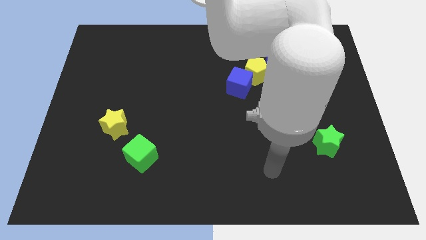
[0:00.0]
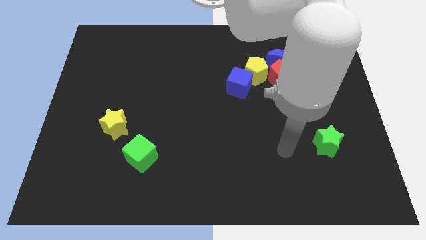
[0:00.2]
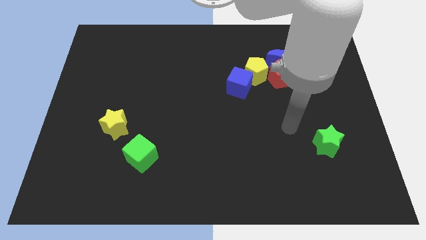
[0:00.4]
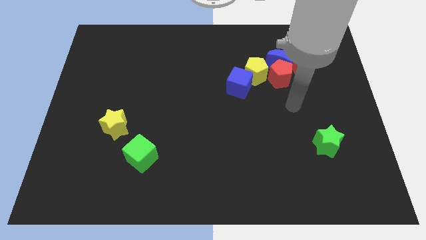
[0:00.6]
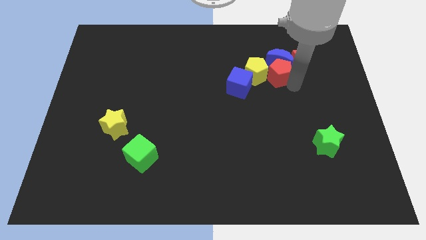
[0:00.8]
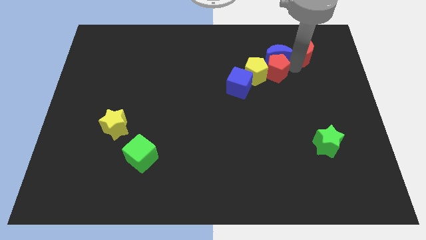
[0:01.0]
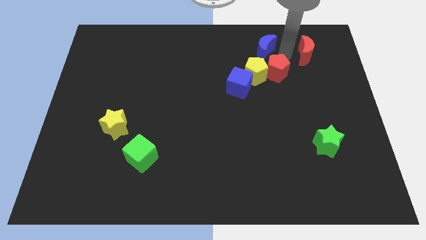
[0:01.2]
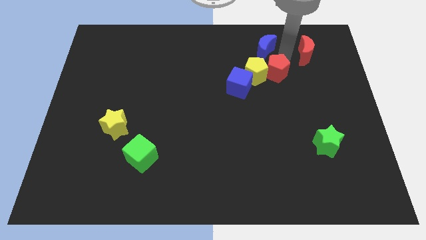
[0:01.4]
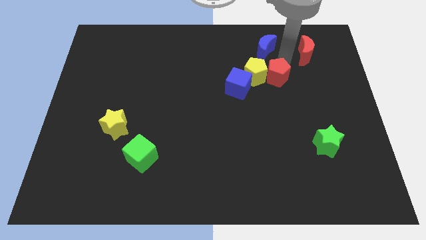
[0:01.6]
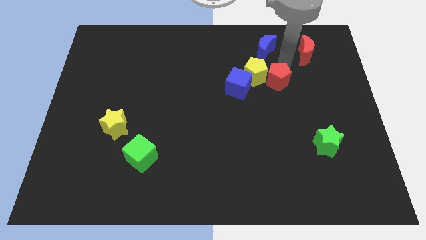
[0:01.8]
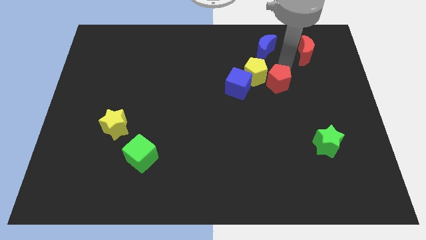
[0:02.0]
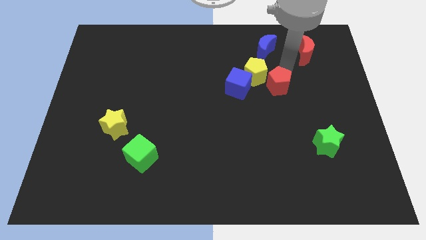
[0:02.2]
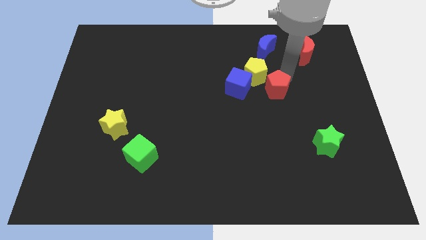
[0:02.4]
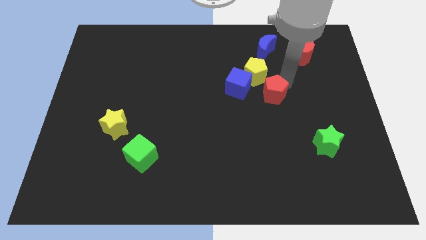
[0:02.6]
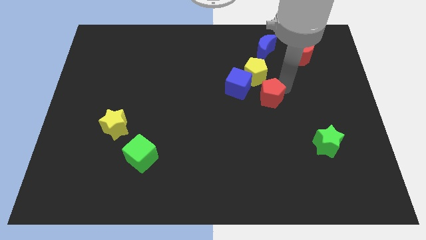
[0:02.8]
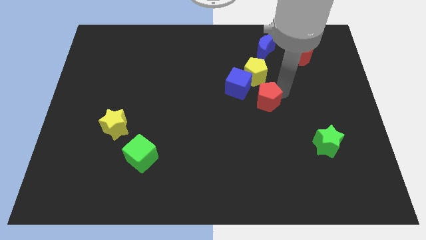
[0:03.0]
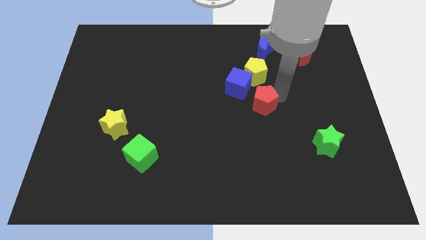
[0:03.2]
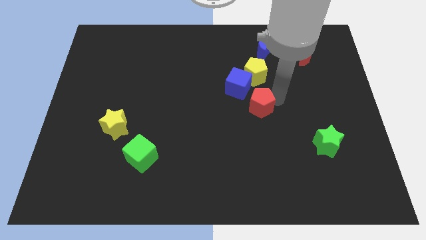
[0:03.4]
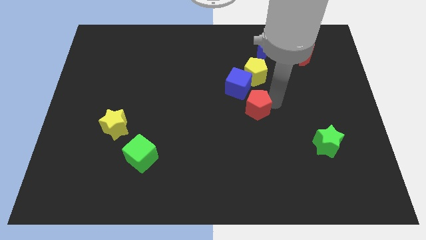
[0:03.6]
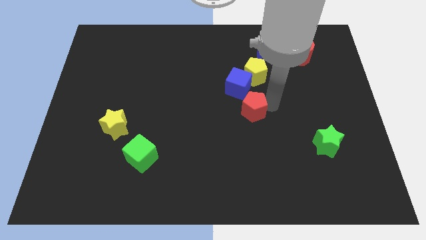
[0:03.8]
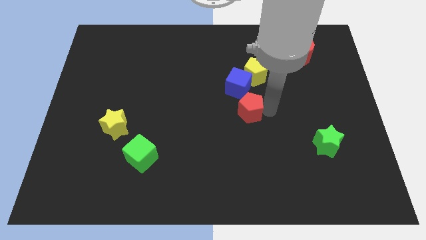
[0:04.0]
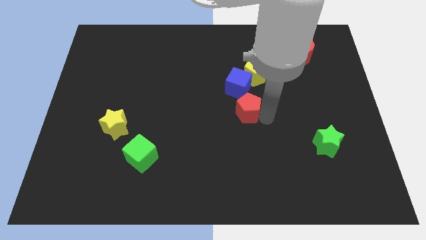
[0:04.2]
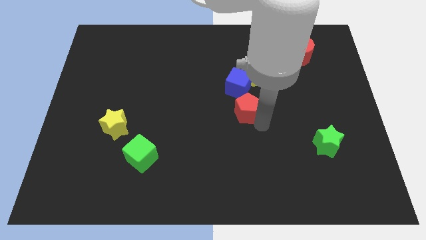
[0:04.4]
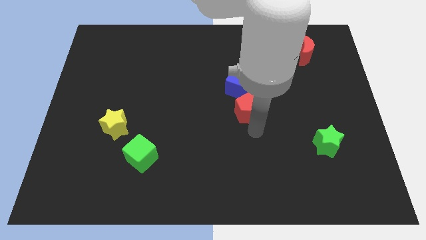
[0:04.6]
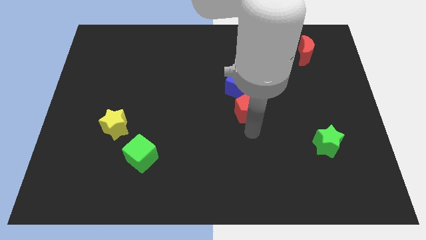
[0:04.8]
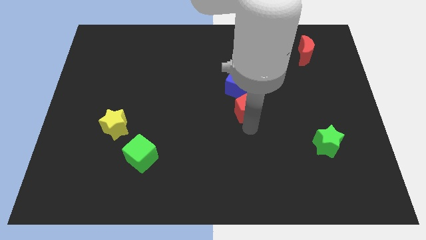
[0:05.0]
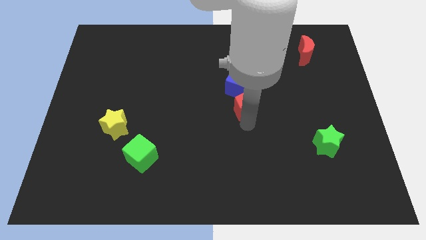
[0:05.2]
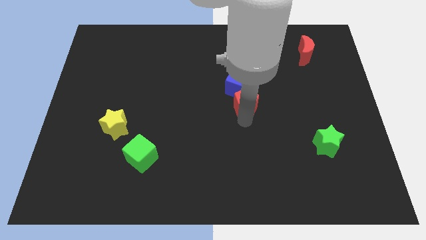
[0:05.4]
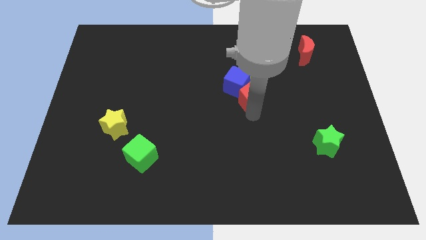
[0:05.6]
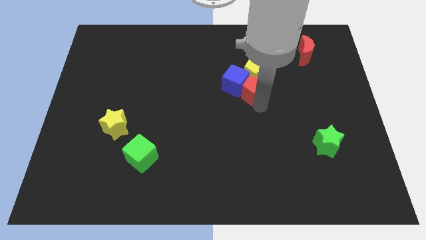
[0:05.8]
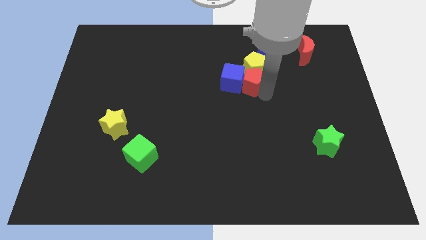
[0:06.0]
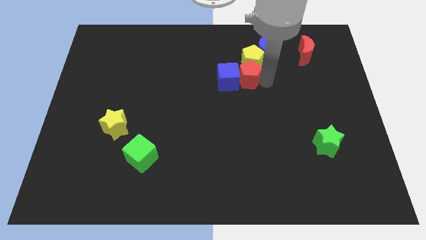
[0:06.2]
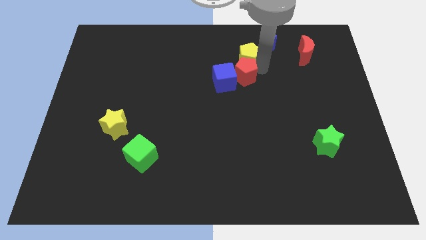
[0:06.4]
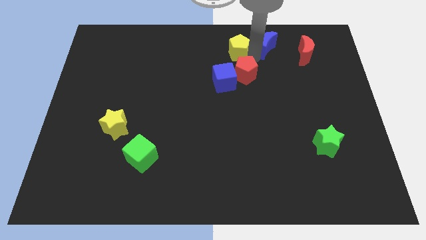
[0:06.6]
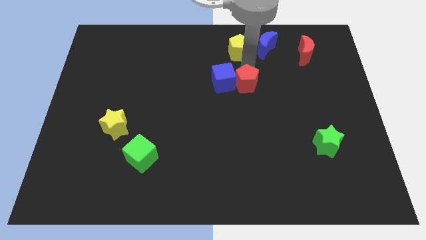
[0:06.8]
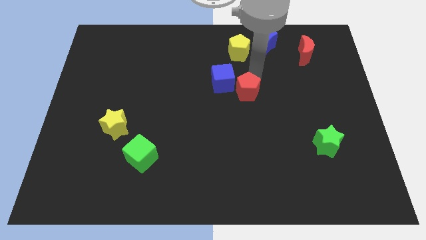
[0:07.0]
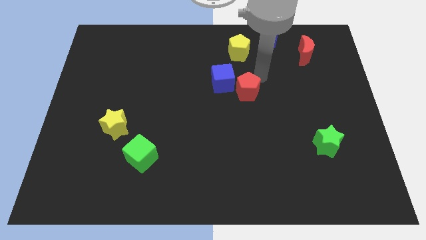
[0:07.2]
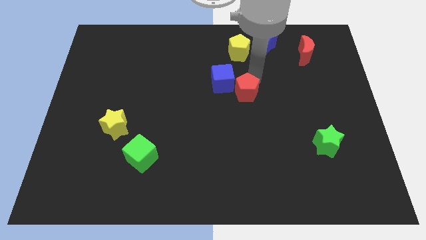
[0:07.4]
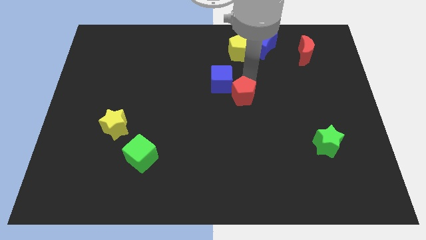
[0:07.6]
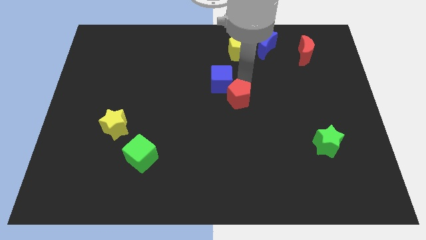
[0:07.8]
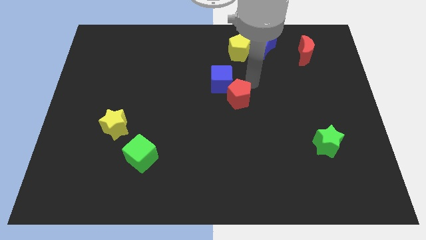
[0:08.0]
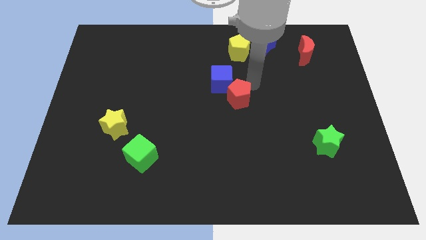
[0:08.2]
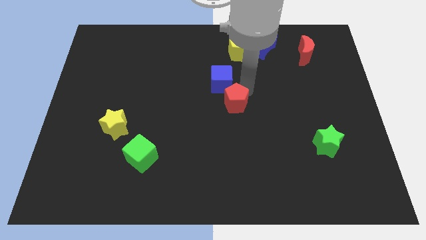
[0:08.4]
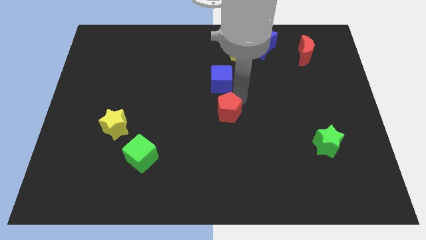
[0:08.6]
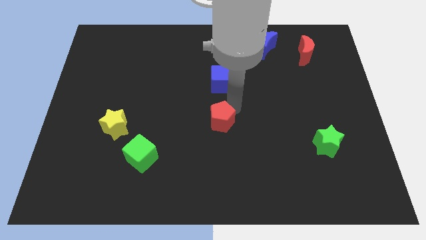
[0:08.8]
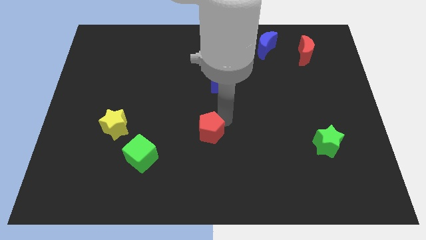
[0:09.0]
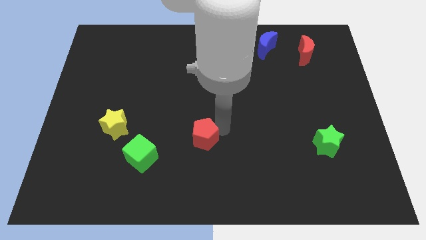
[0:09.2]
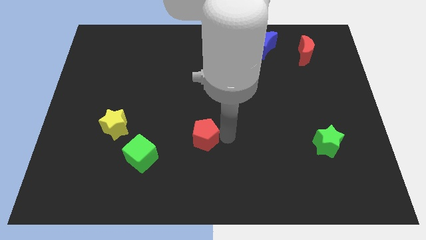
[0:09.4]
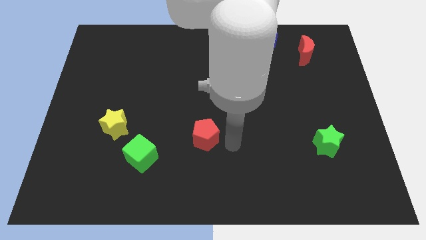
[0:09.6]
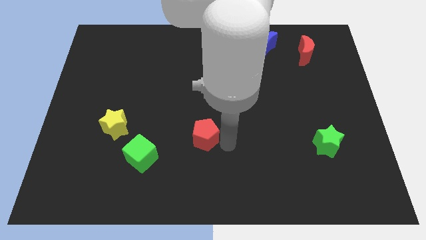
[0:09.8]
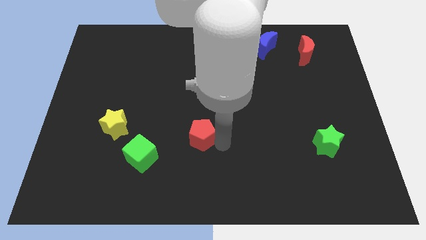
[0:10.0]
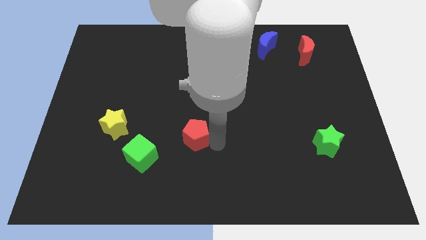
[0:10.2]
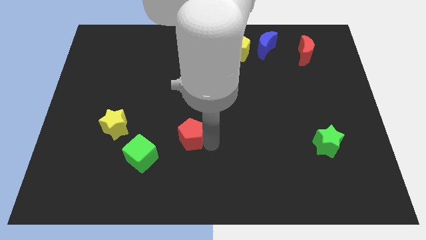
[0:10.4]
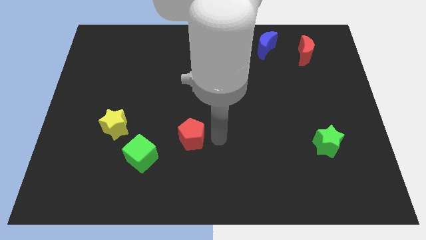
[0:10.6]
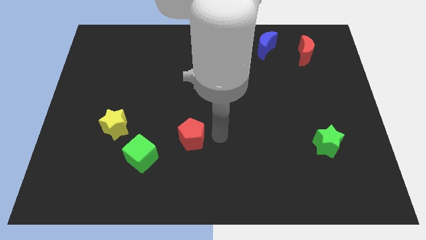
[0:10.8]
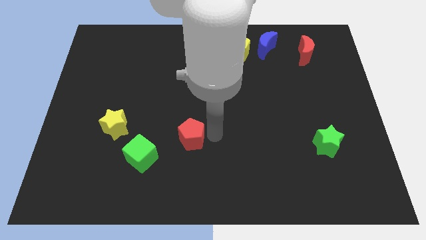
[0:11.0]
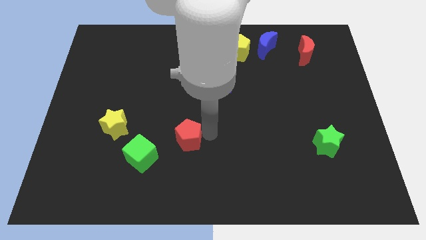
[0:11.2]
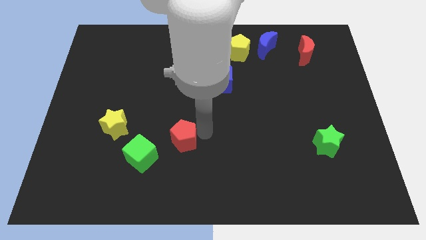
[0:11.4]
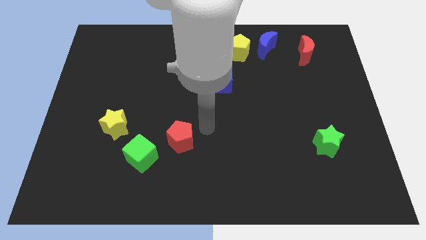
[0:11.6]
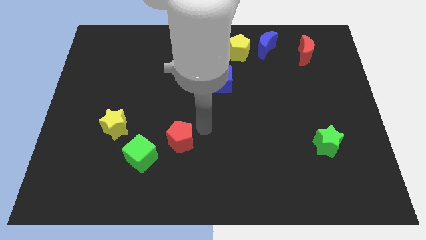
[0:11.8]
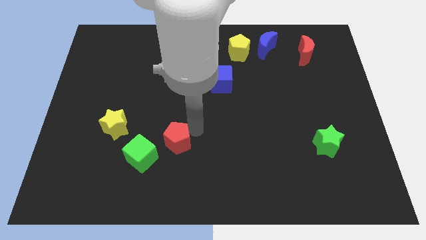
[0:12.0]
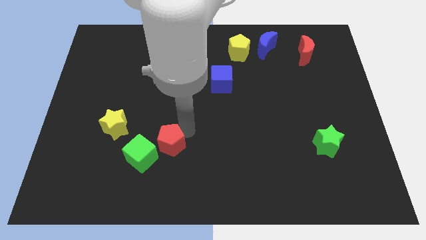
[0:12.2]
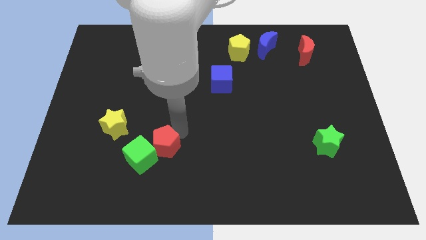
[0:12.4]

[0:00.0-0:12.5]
slide the red pentagon to the green cube
